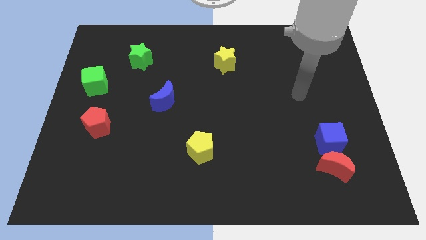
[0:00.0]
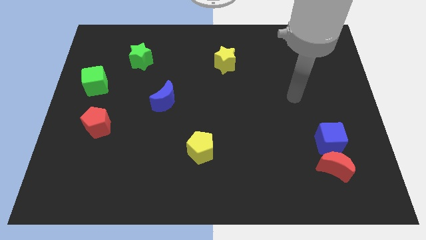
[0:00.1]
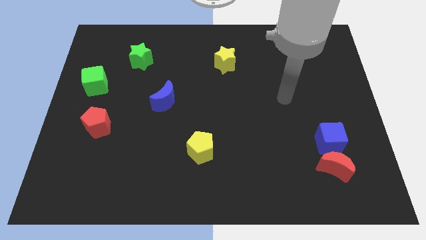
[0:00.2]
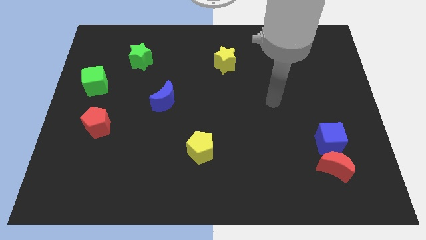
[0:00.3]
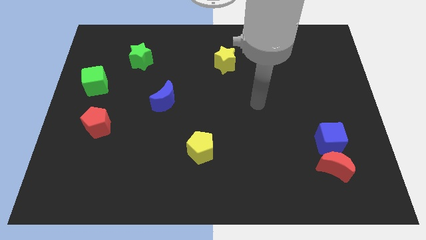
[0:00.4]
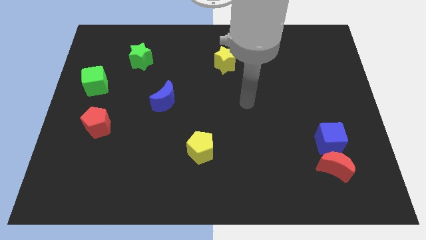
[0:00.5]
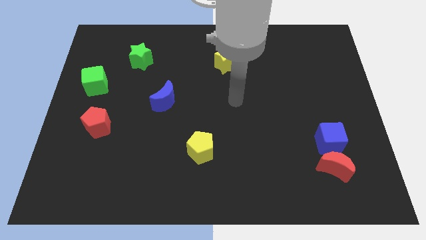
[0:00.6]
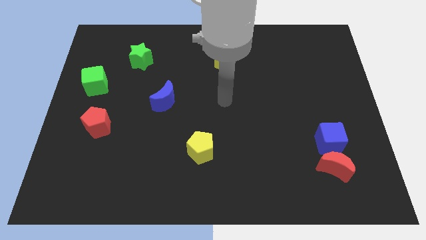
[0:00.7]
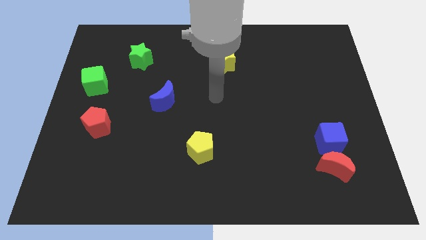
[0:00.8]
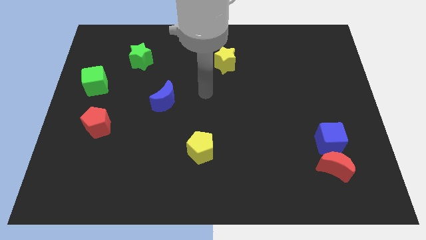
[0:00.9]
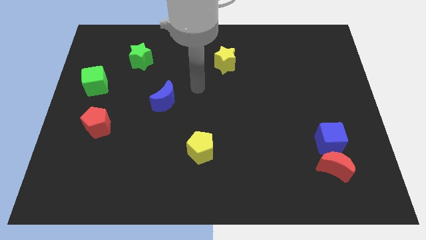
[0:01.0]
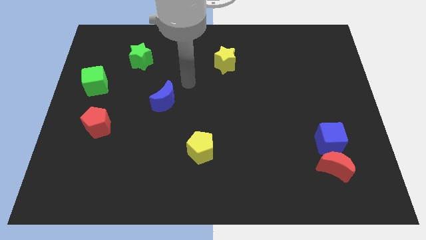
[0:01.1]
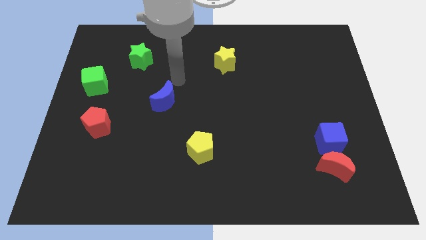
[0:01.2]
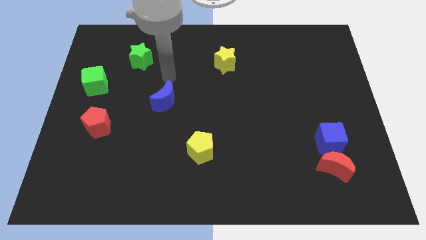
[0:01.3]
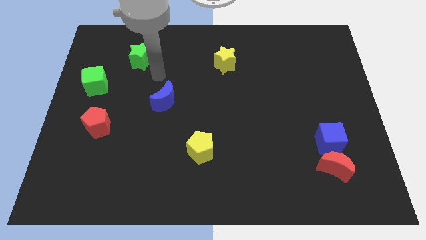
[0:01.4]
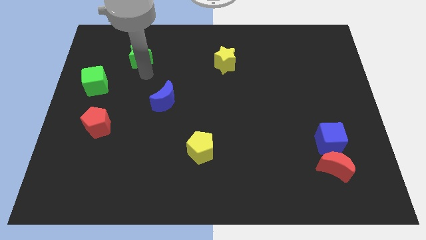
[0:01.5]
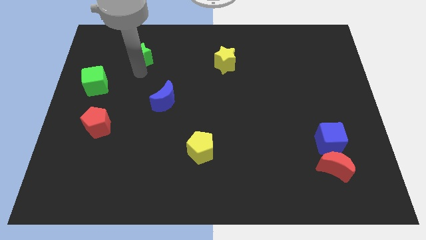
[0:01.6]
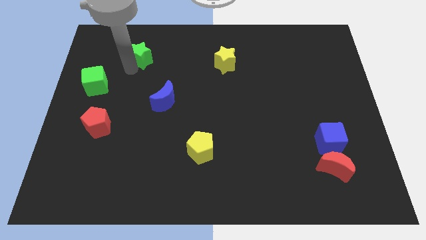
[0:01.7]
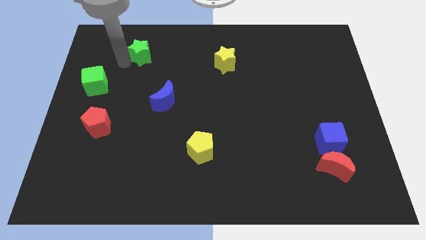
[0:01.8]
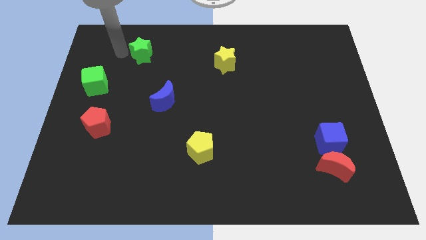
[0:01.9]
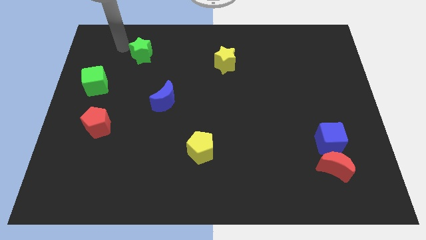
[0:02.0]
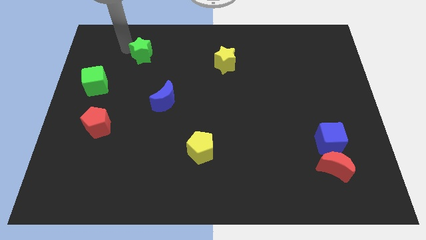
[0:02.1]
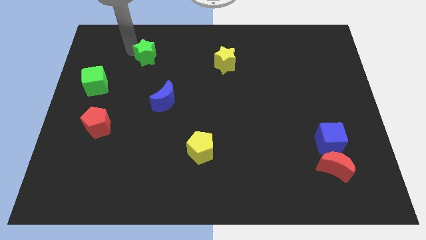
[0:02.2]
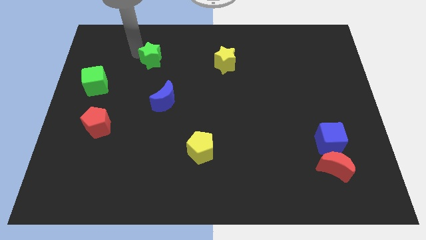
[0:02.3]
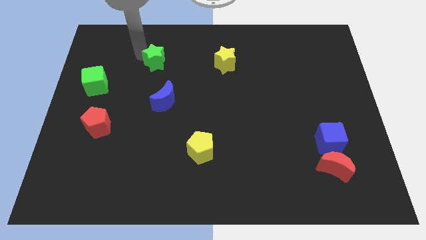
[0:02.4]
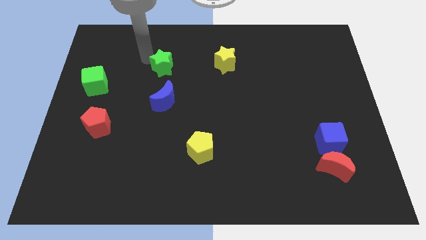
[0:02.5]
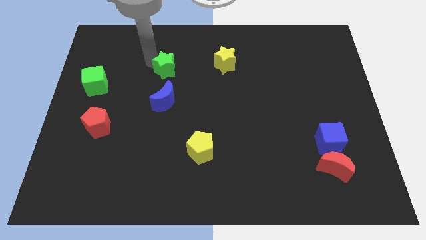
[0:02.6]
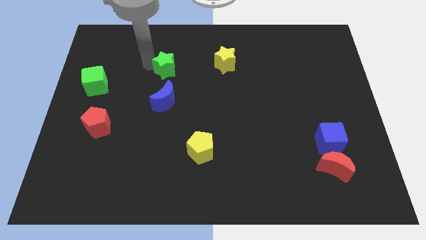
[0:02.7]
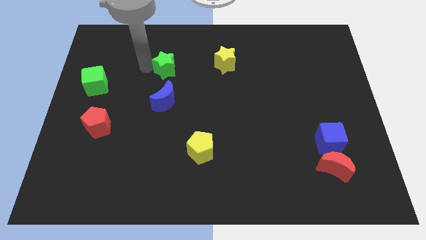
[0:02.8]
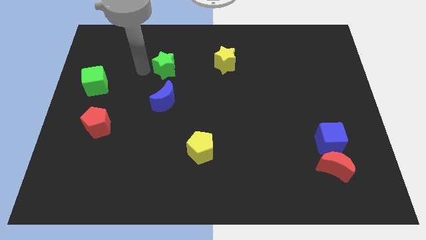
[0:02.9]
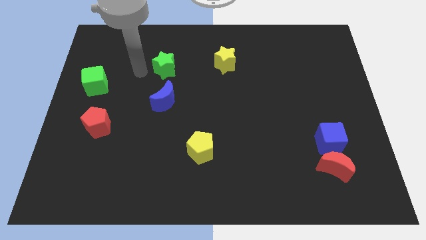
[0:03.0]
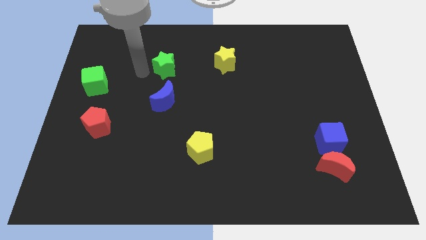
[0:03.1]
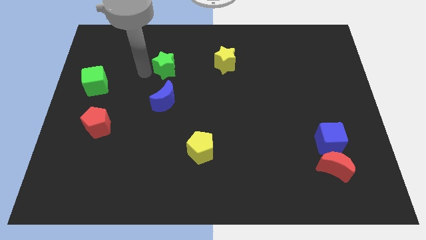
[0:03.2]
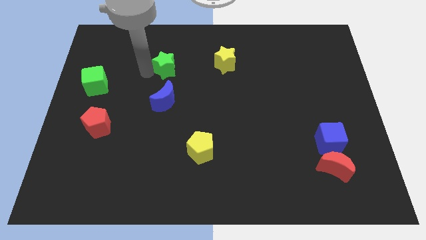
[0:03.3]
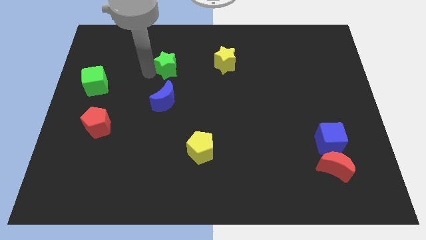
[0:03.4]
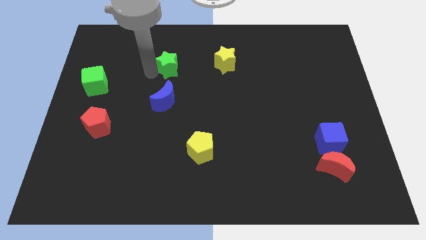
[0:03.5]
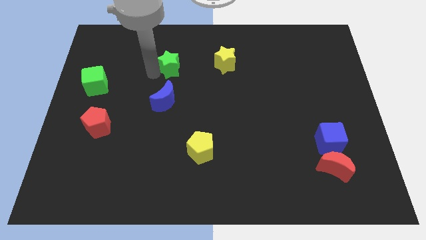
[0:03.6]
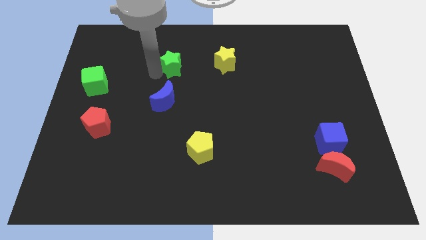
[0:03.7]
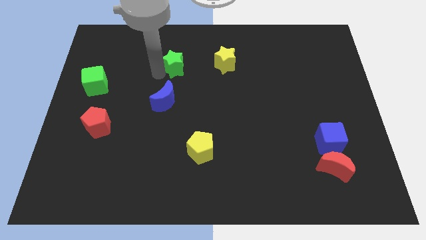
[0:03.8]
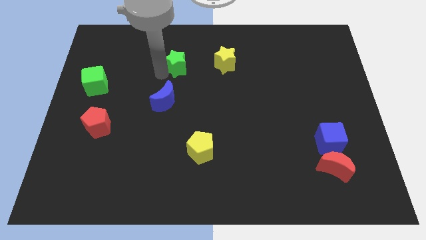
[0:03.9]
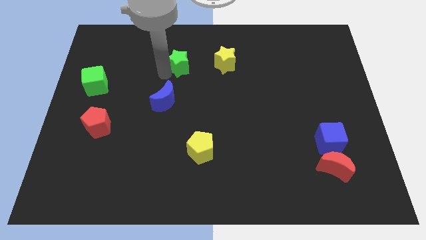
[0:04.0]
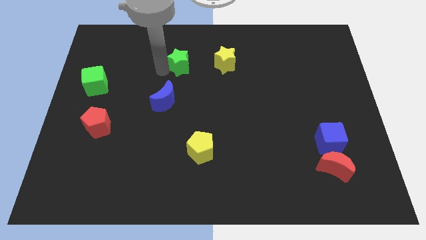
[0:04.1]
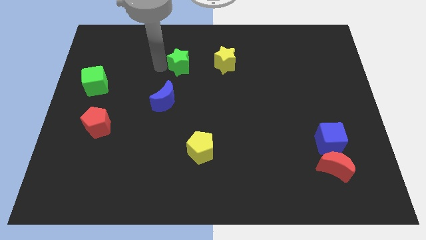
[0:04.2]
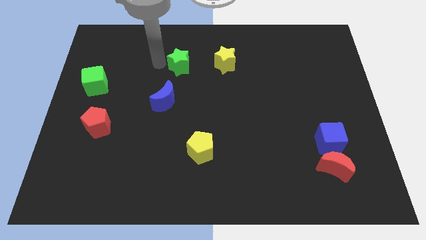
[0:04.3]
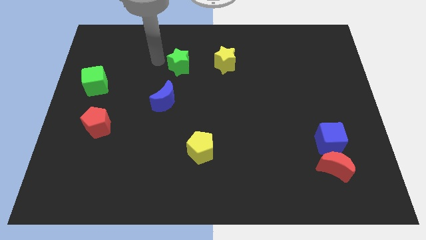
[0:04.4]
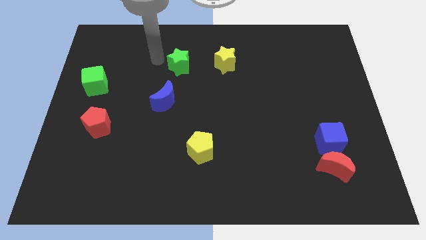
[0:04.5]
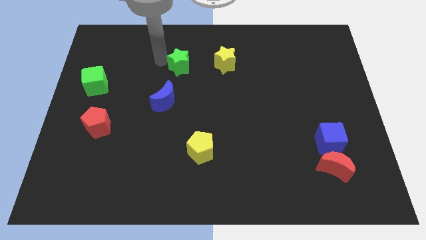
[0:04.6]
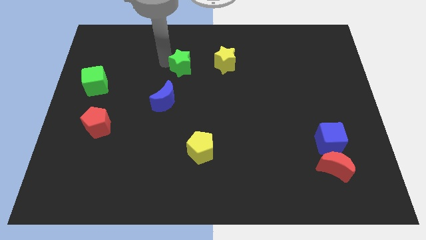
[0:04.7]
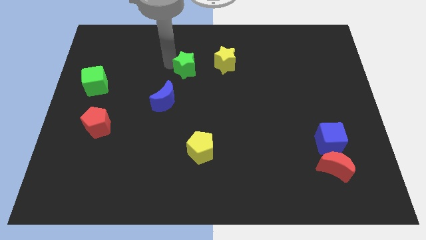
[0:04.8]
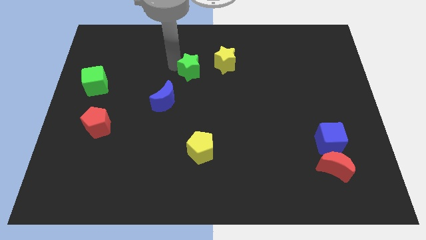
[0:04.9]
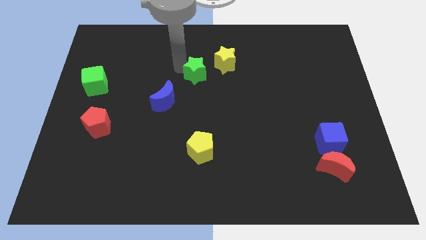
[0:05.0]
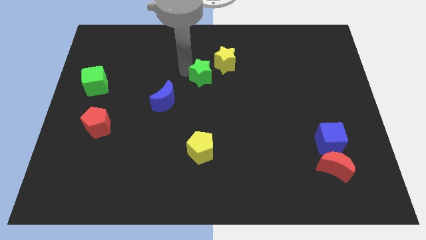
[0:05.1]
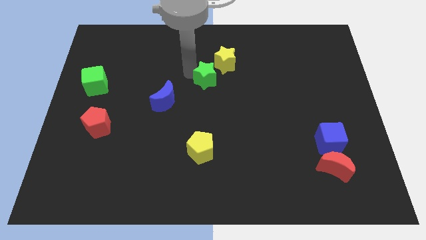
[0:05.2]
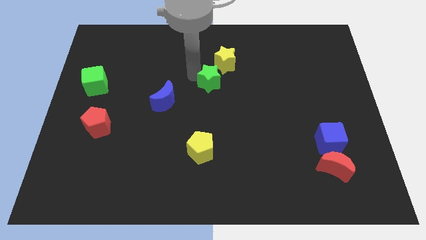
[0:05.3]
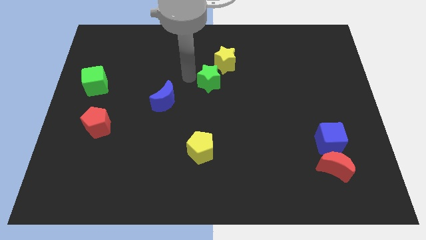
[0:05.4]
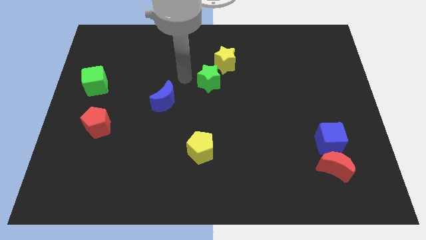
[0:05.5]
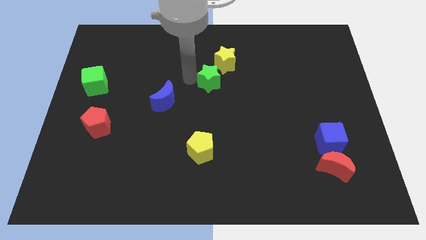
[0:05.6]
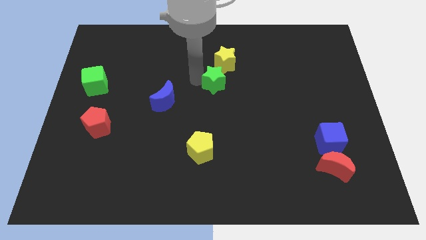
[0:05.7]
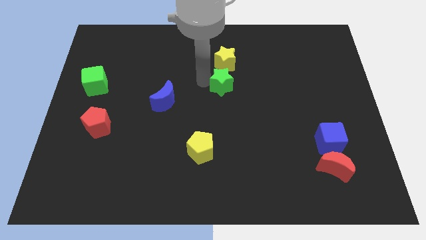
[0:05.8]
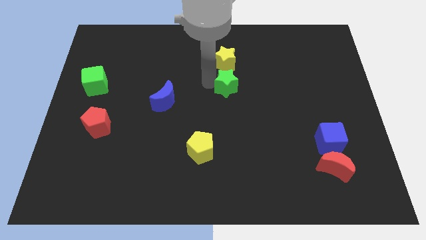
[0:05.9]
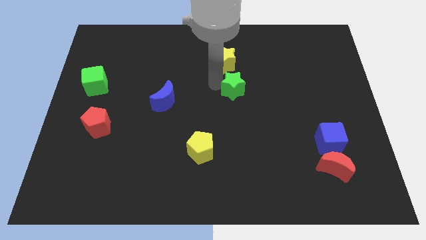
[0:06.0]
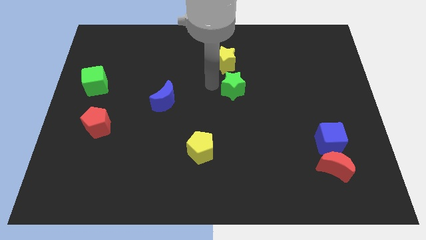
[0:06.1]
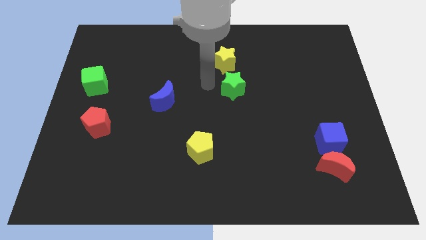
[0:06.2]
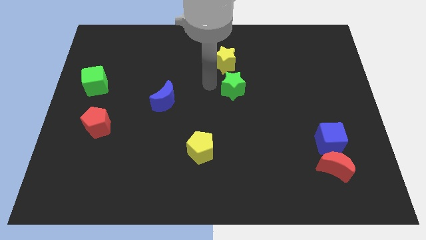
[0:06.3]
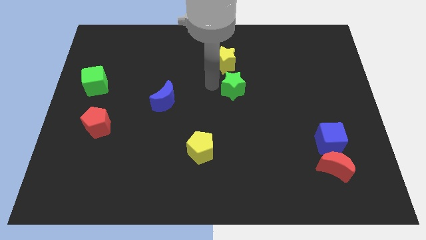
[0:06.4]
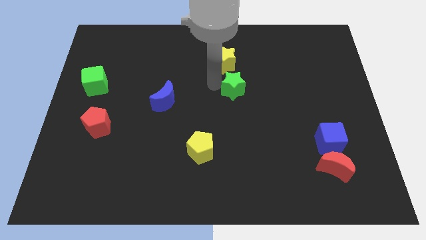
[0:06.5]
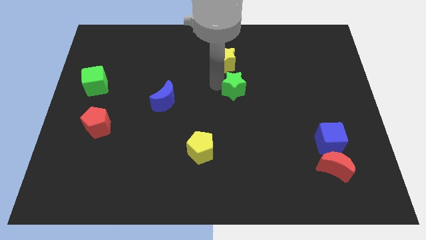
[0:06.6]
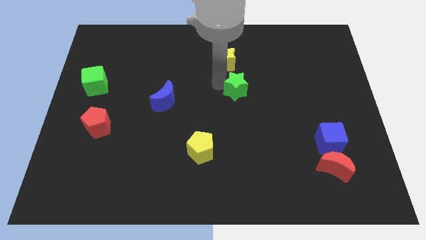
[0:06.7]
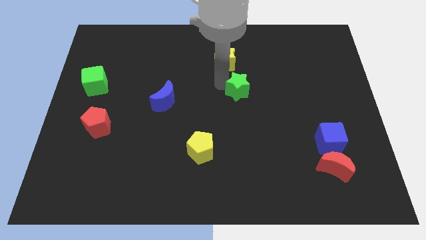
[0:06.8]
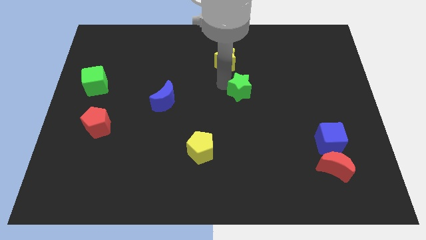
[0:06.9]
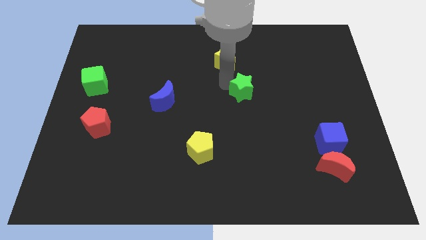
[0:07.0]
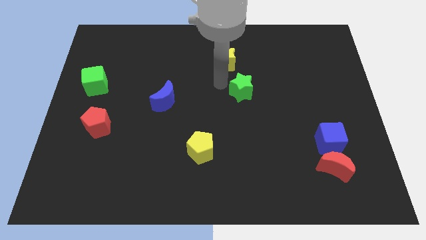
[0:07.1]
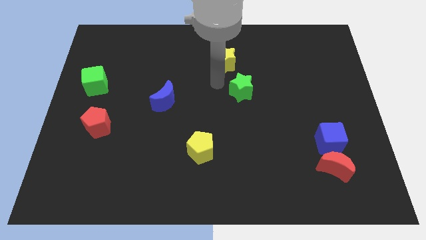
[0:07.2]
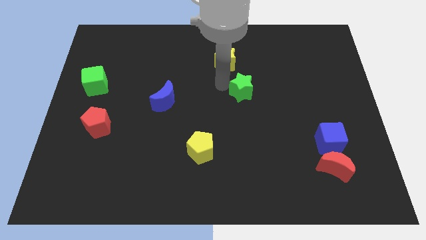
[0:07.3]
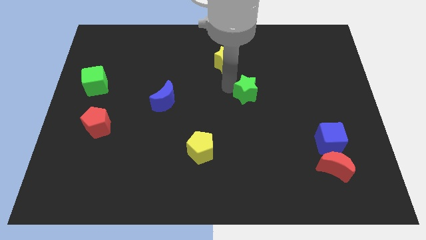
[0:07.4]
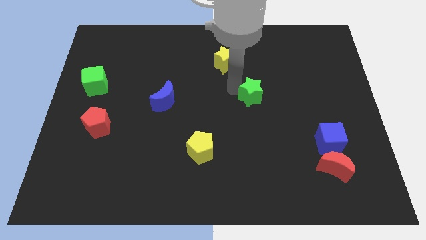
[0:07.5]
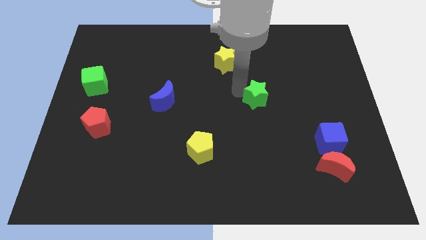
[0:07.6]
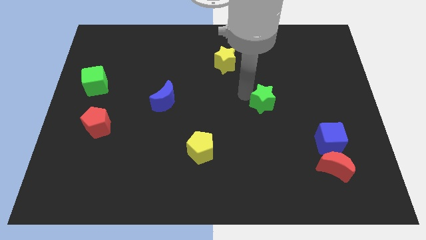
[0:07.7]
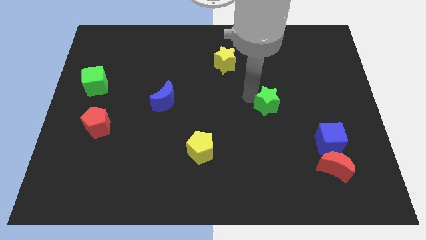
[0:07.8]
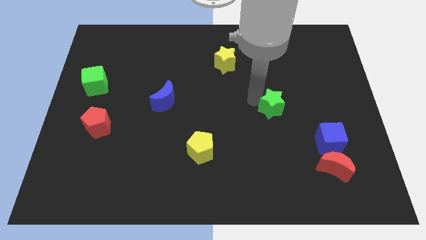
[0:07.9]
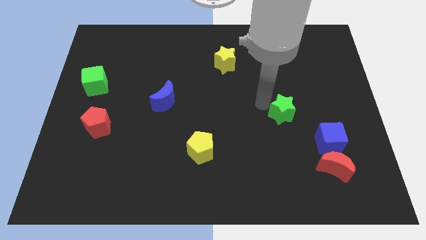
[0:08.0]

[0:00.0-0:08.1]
put the green star to the top left of the blue cube
